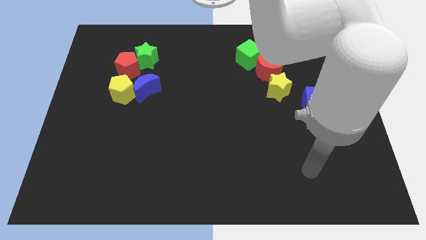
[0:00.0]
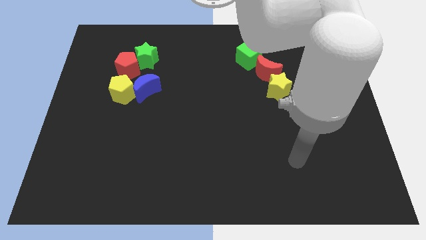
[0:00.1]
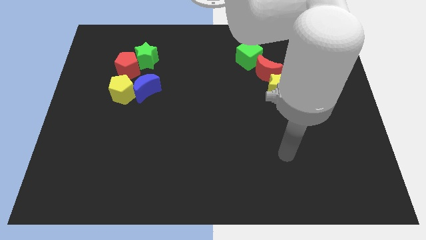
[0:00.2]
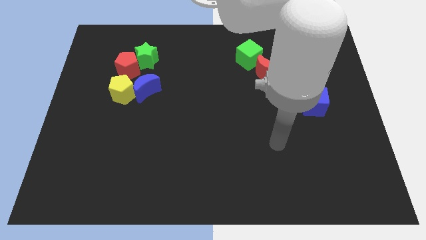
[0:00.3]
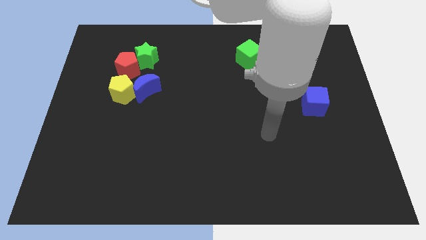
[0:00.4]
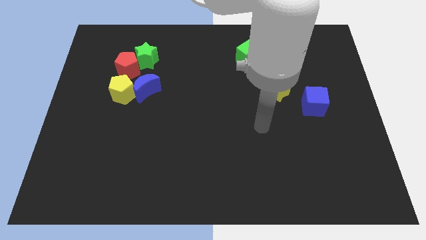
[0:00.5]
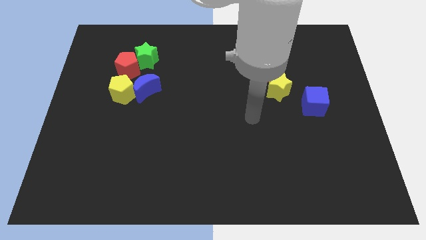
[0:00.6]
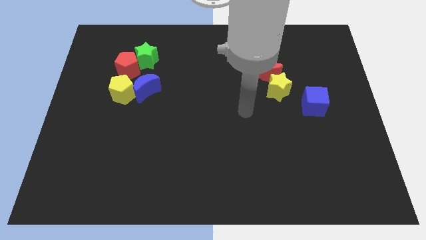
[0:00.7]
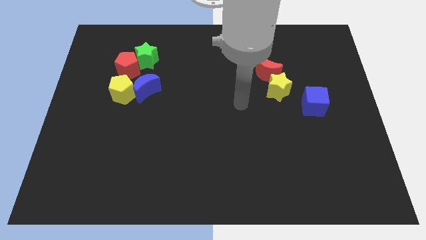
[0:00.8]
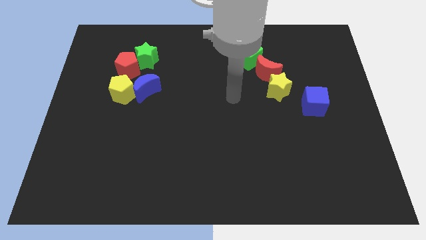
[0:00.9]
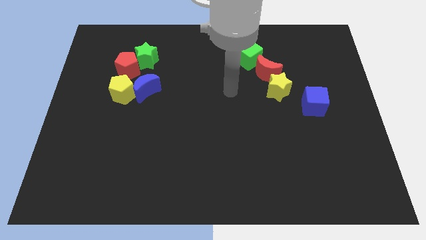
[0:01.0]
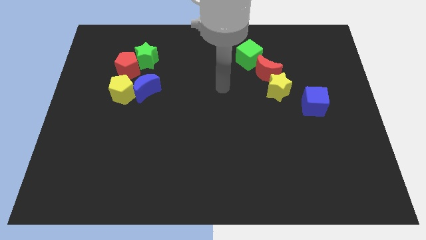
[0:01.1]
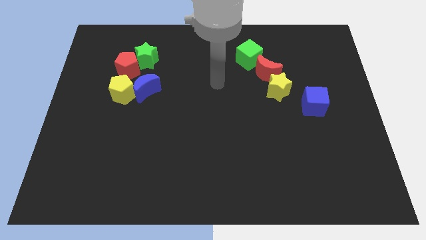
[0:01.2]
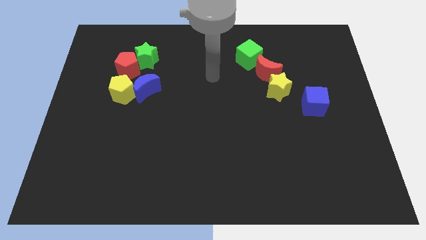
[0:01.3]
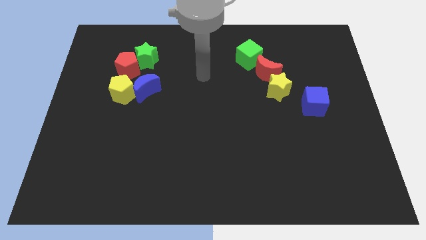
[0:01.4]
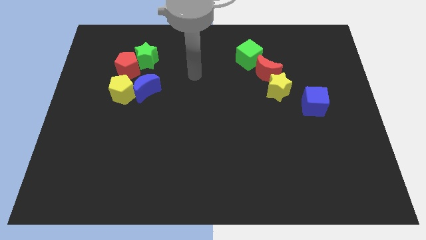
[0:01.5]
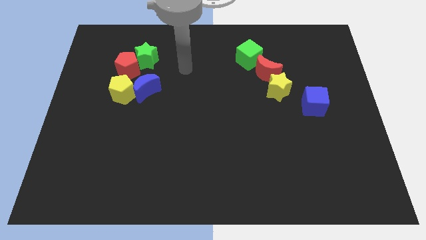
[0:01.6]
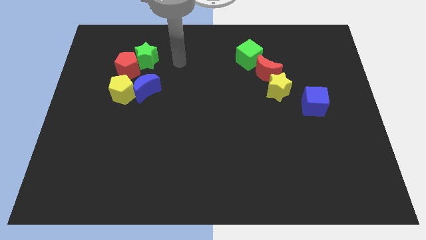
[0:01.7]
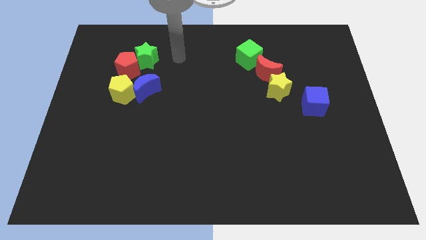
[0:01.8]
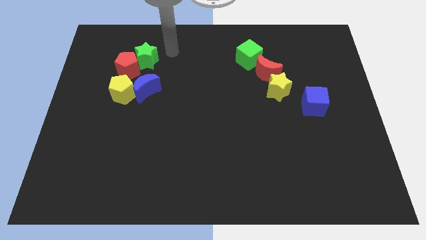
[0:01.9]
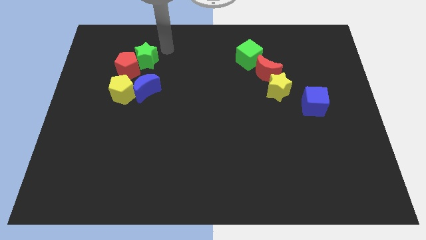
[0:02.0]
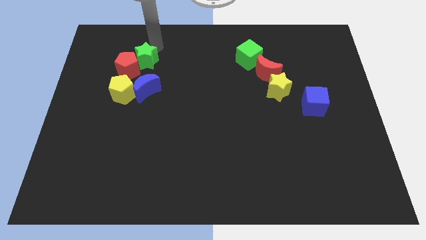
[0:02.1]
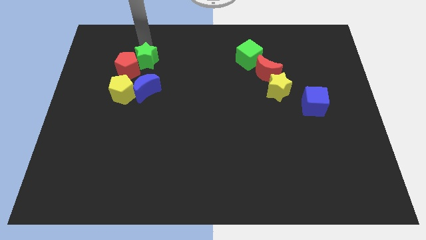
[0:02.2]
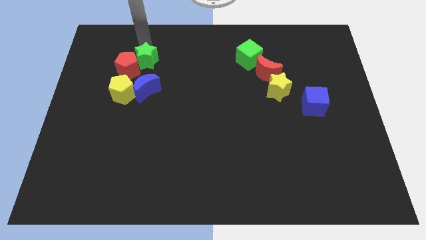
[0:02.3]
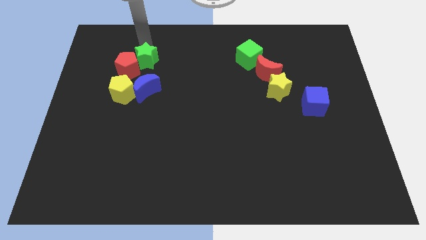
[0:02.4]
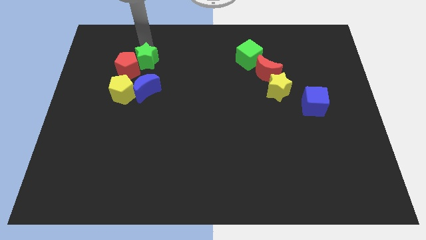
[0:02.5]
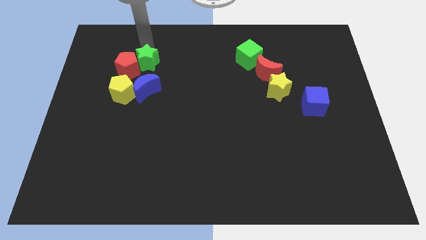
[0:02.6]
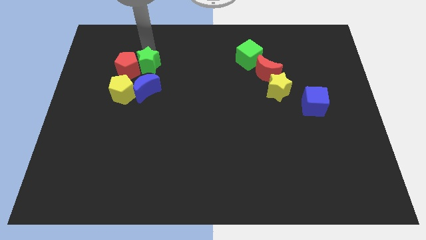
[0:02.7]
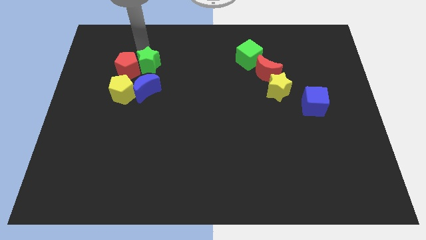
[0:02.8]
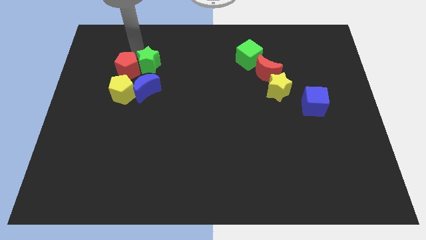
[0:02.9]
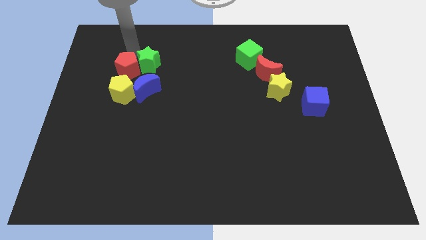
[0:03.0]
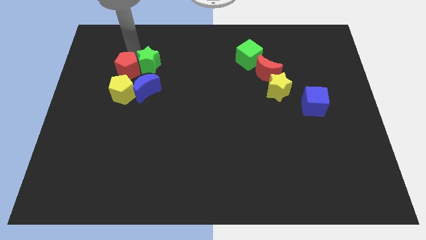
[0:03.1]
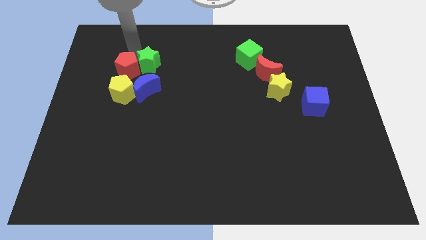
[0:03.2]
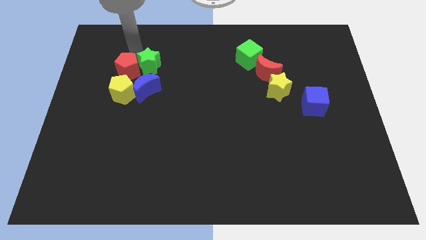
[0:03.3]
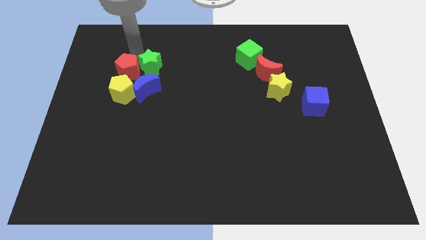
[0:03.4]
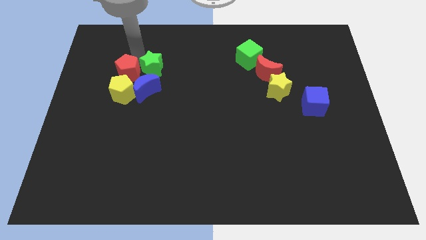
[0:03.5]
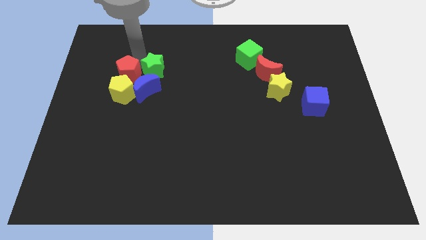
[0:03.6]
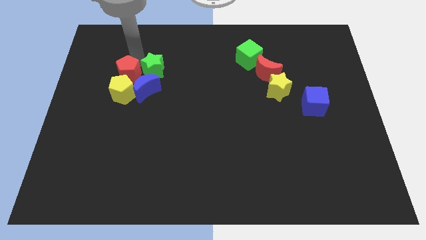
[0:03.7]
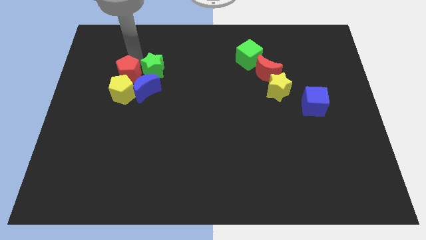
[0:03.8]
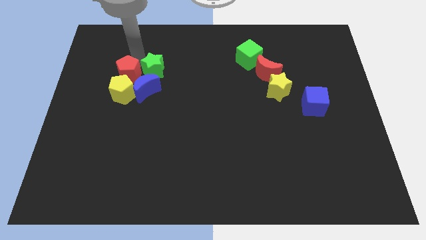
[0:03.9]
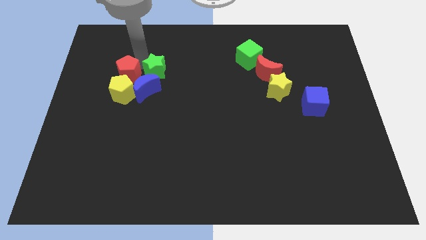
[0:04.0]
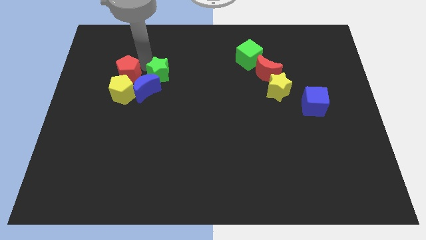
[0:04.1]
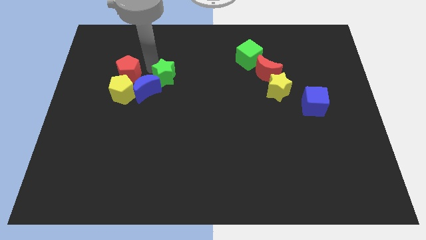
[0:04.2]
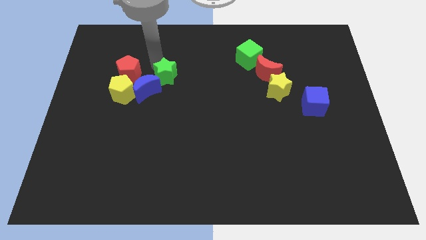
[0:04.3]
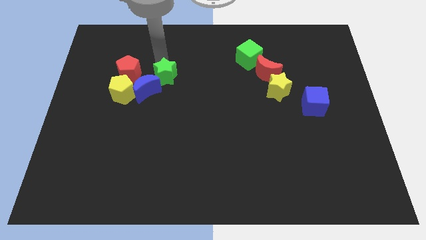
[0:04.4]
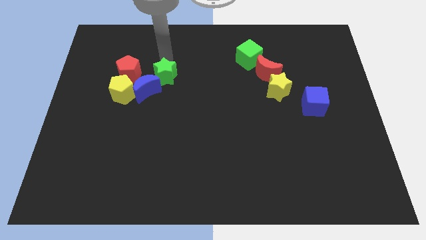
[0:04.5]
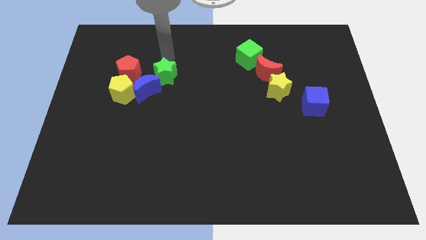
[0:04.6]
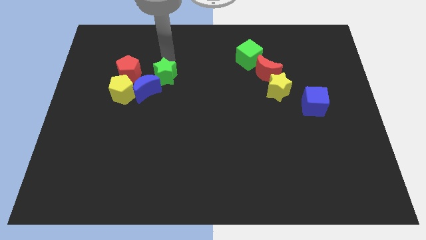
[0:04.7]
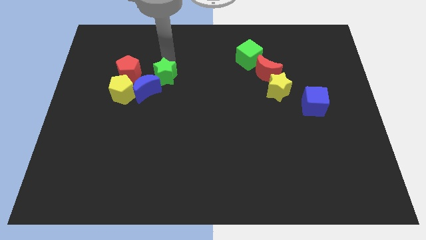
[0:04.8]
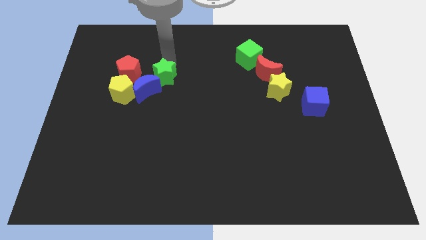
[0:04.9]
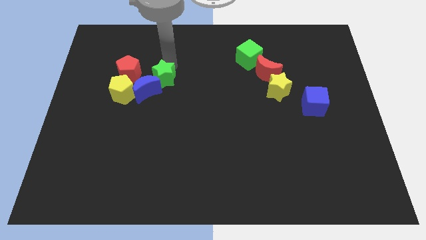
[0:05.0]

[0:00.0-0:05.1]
push the green star just right of the yellow pentagon

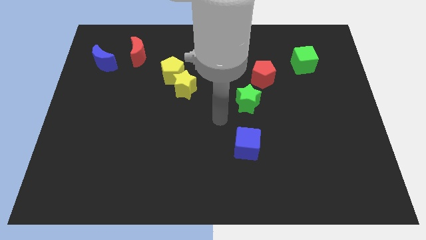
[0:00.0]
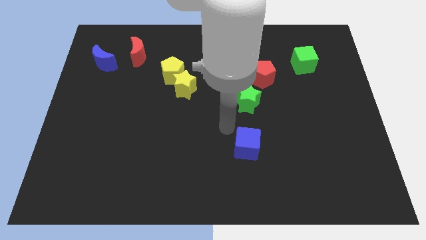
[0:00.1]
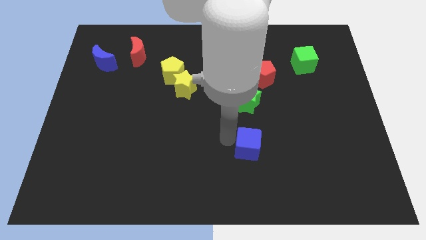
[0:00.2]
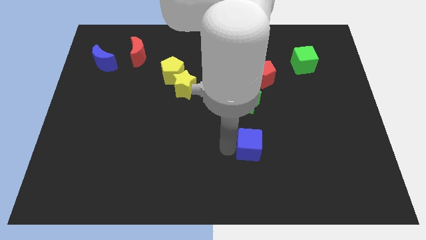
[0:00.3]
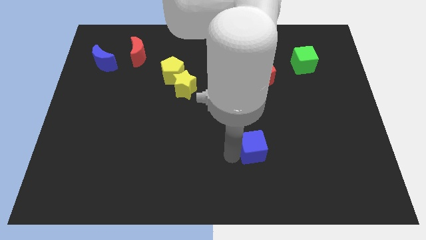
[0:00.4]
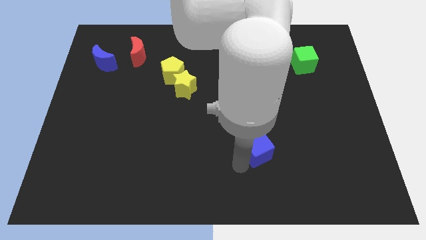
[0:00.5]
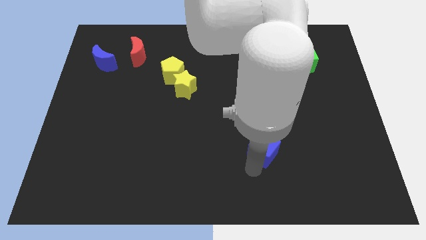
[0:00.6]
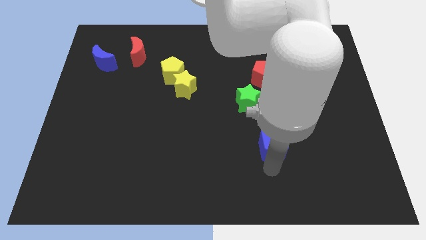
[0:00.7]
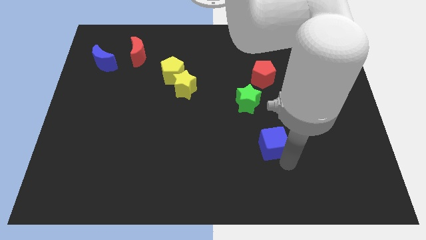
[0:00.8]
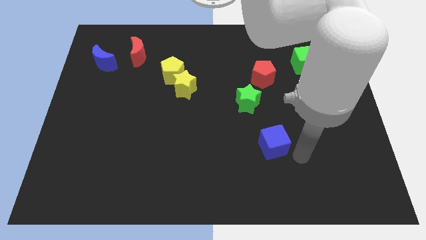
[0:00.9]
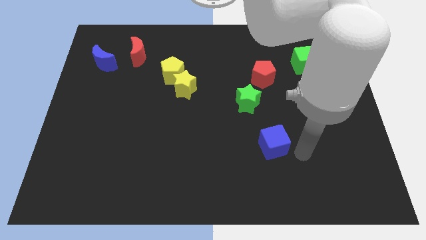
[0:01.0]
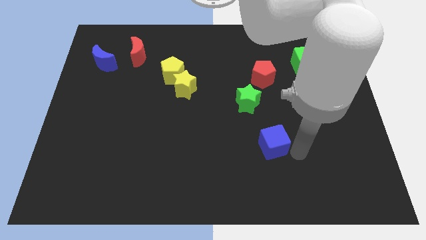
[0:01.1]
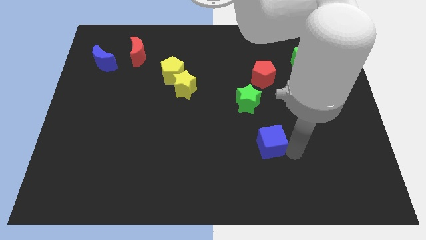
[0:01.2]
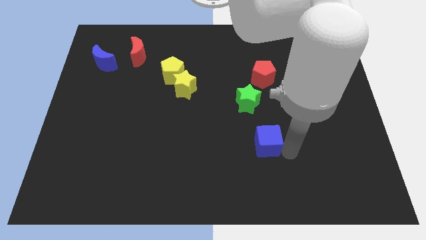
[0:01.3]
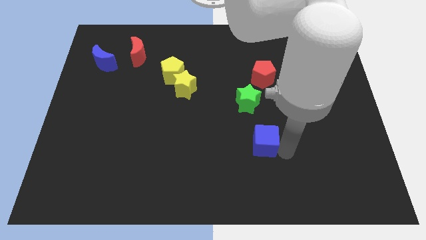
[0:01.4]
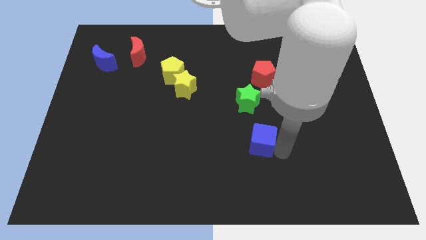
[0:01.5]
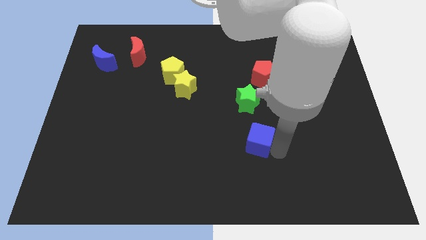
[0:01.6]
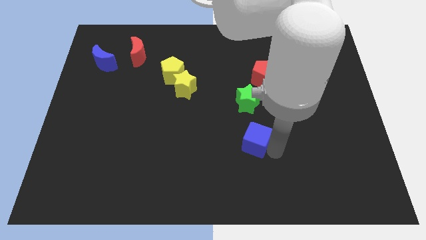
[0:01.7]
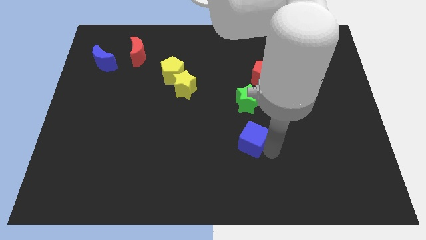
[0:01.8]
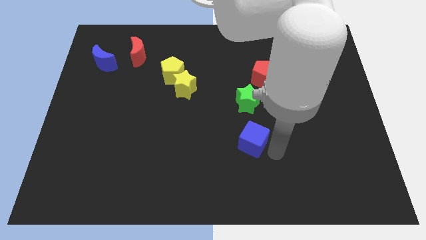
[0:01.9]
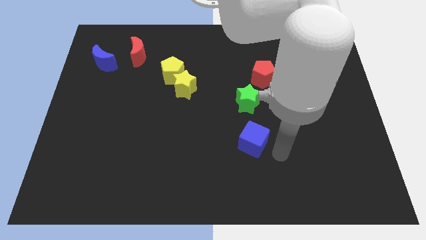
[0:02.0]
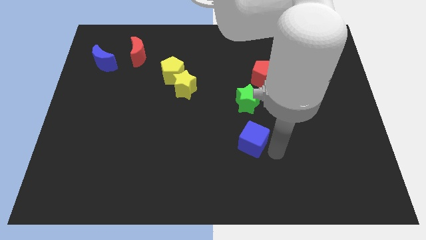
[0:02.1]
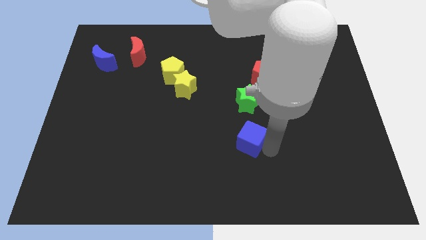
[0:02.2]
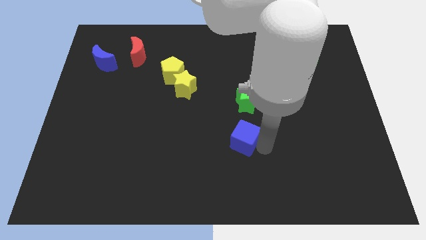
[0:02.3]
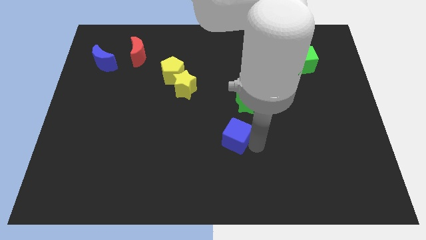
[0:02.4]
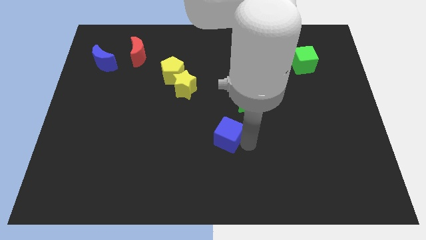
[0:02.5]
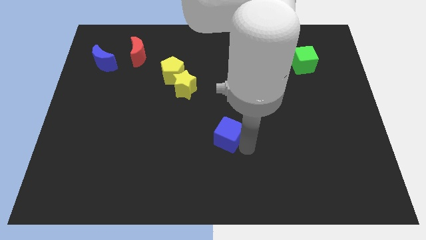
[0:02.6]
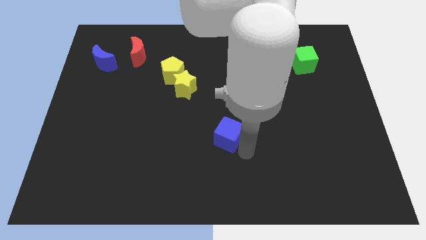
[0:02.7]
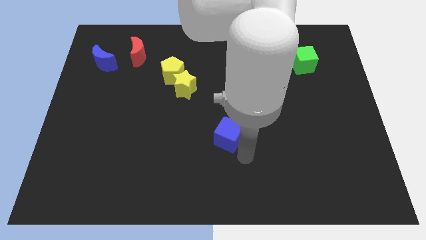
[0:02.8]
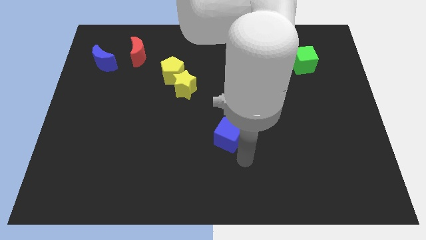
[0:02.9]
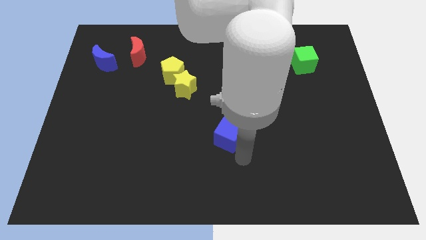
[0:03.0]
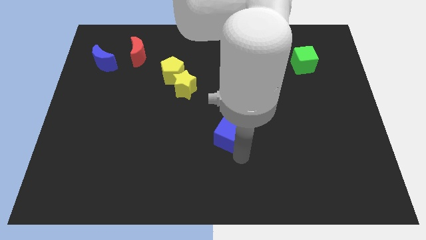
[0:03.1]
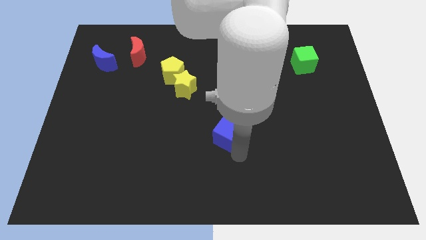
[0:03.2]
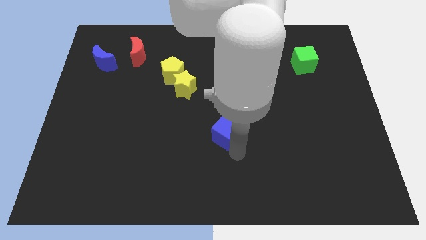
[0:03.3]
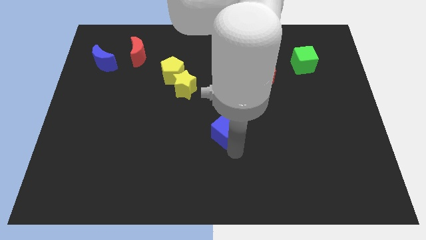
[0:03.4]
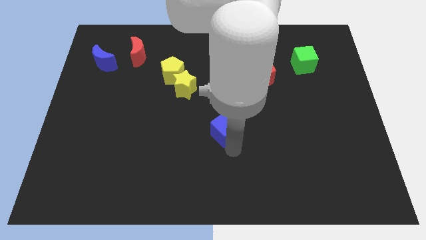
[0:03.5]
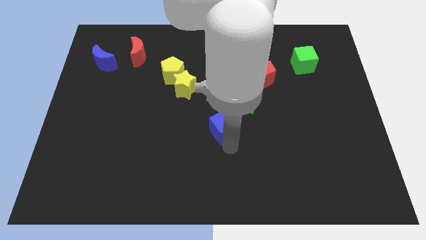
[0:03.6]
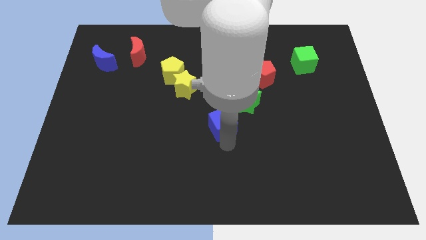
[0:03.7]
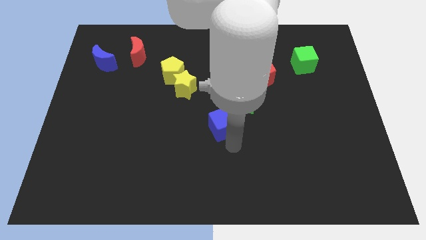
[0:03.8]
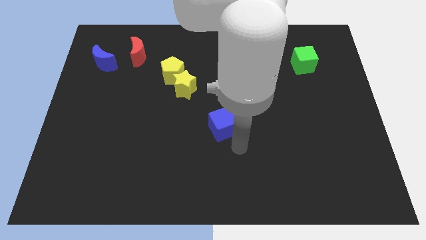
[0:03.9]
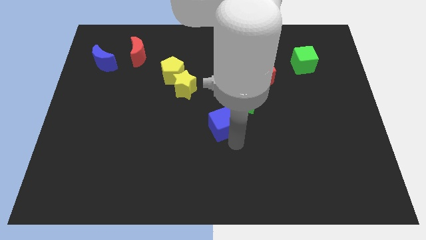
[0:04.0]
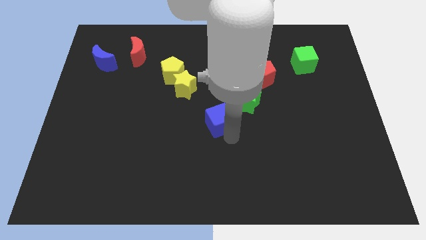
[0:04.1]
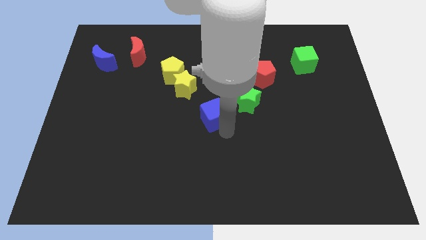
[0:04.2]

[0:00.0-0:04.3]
push the blue cube to the bottom right of the yellow star
